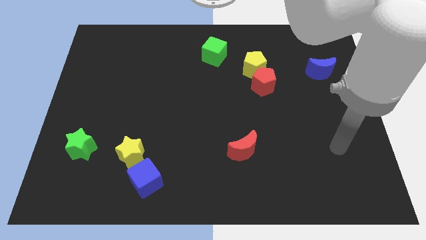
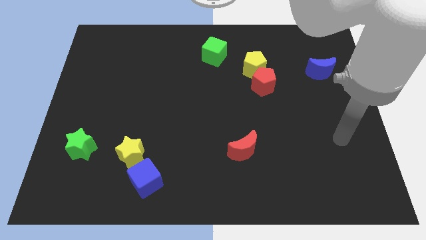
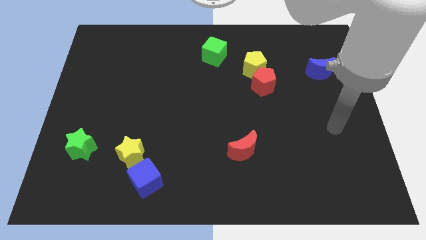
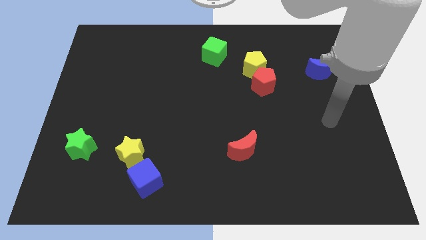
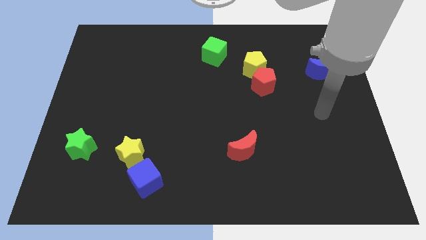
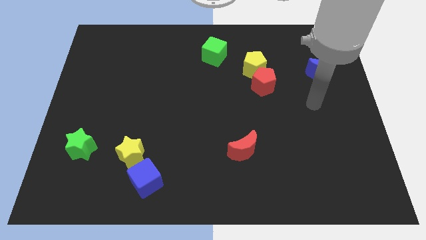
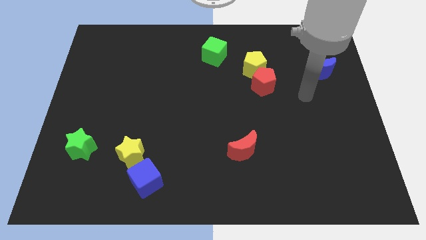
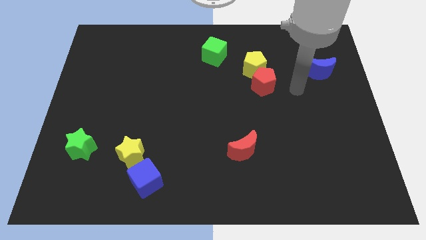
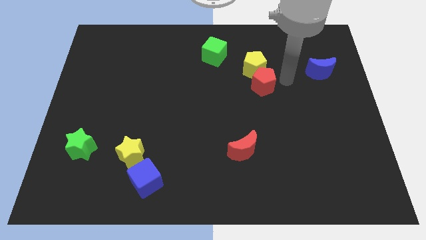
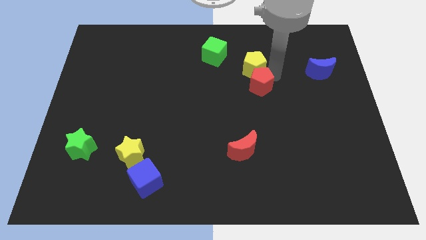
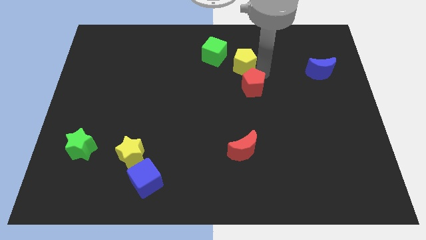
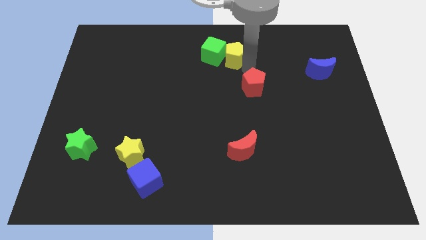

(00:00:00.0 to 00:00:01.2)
move the red pentagon away from the yellow pentagon

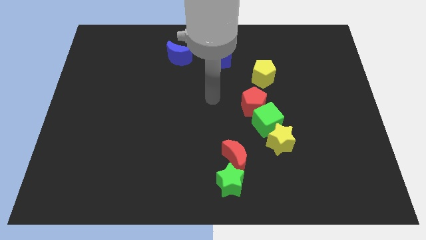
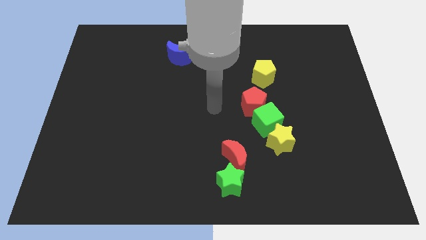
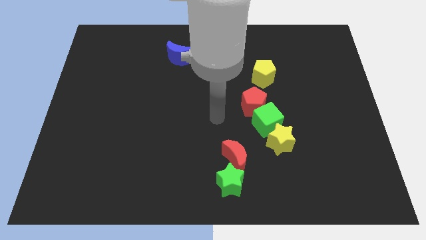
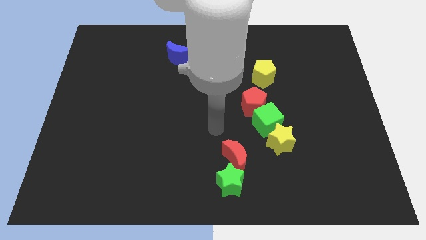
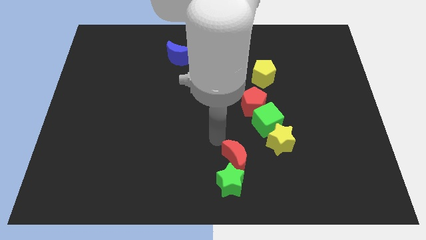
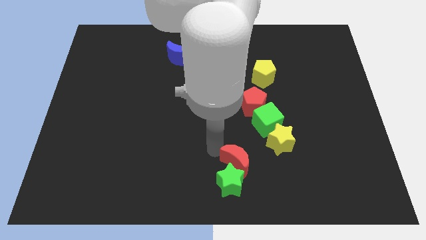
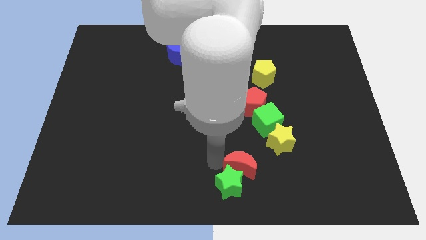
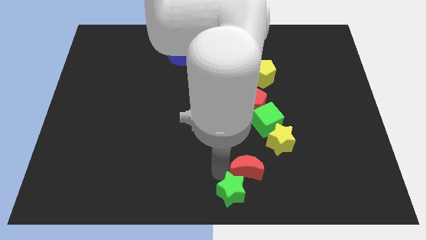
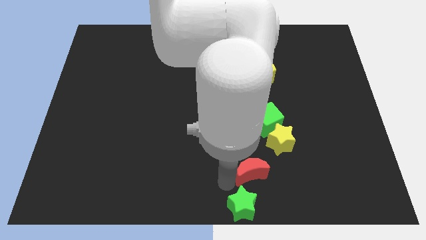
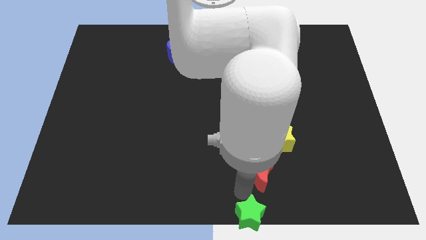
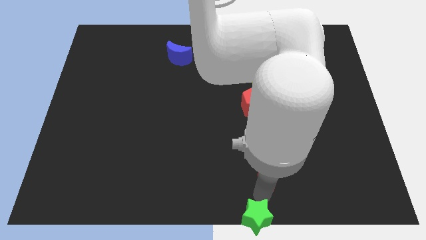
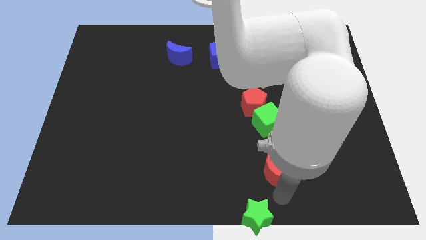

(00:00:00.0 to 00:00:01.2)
pull the red moon apart from the green star

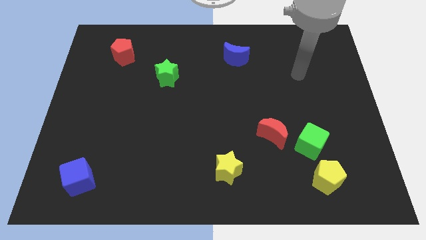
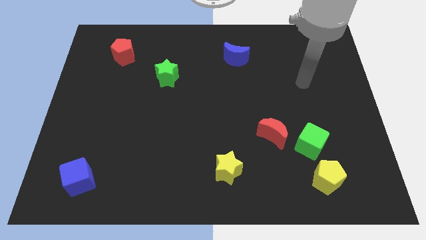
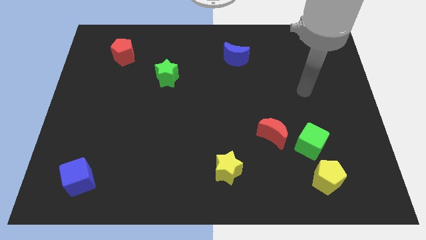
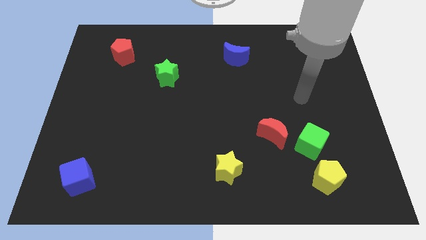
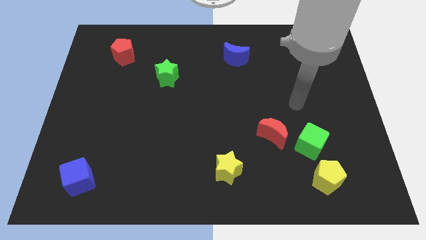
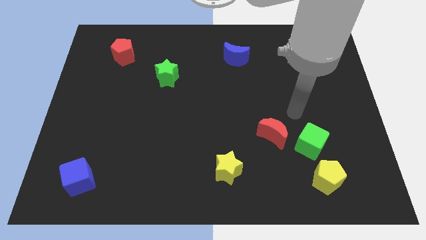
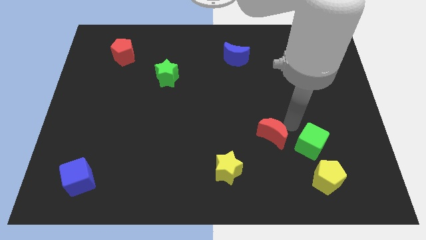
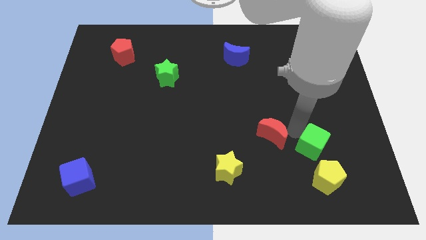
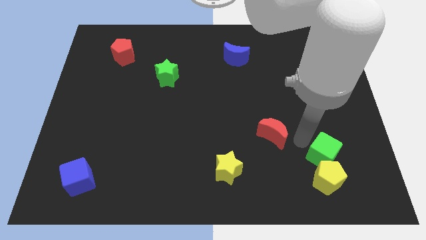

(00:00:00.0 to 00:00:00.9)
pull the red moon apart from the green cube

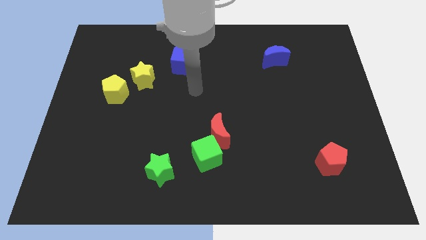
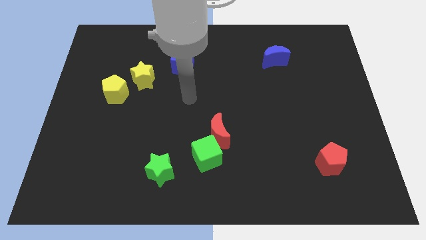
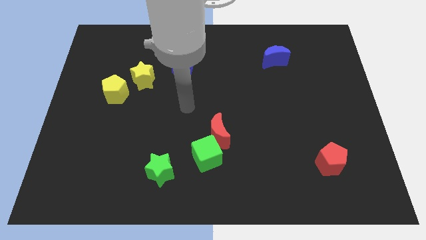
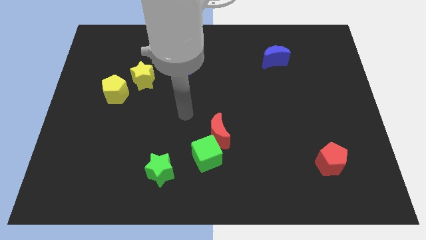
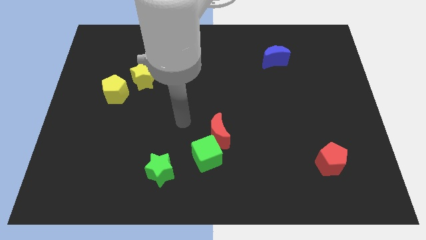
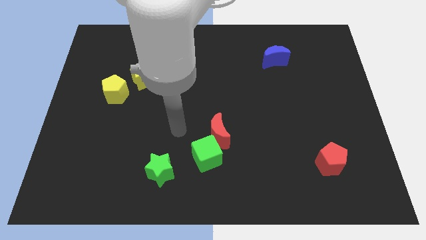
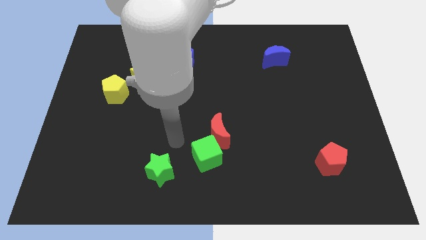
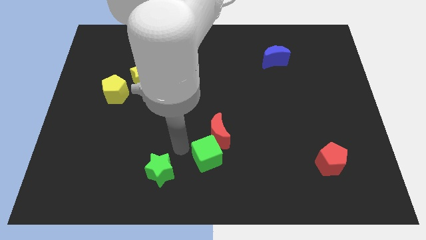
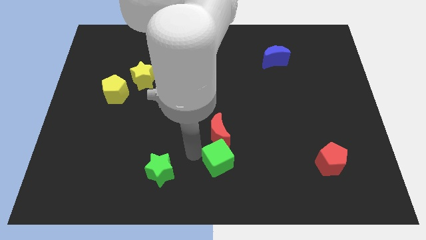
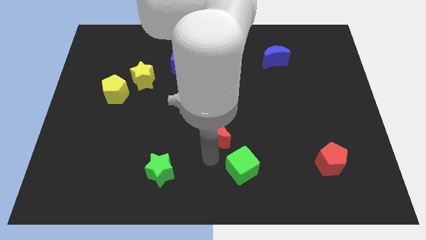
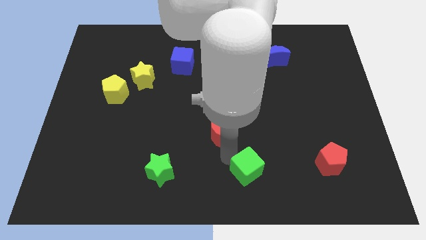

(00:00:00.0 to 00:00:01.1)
separate the red moon from the green cube

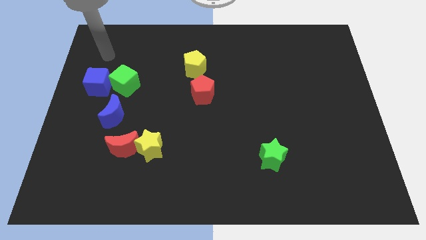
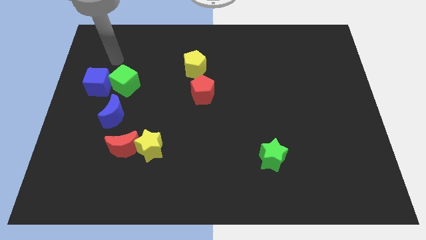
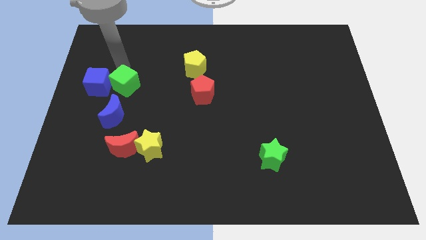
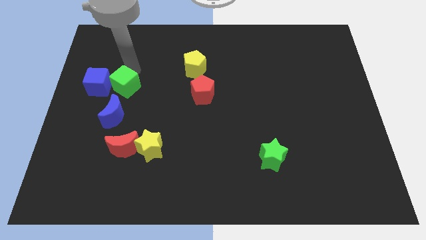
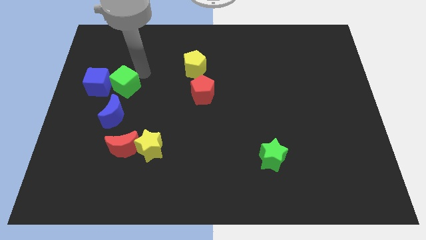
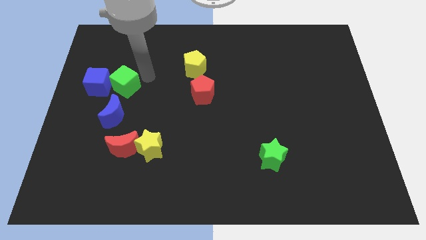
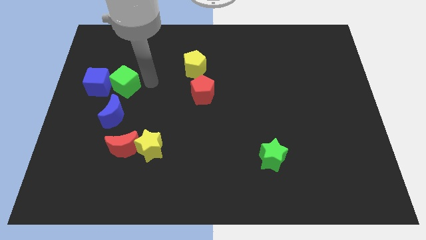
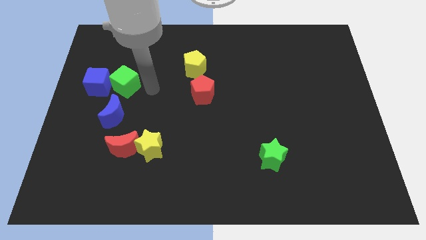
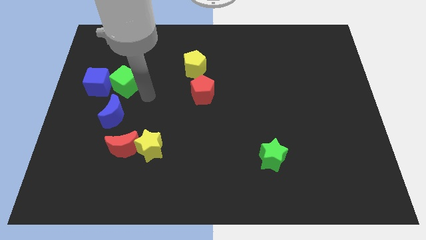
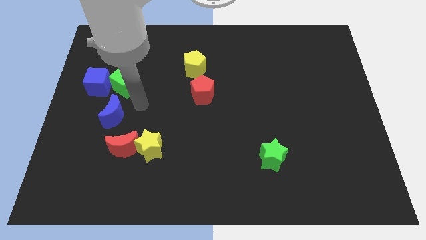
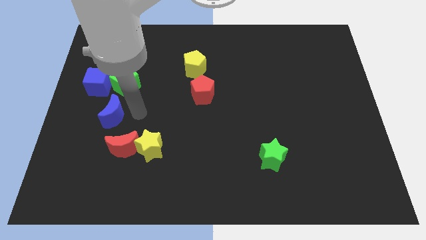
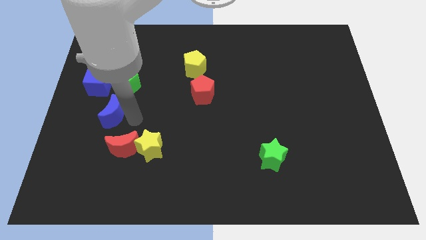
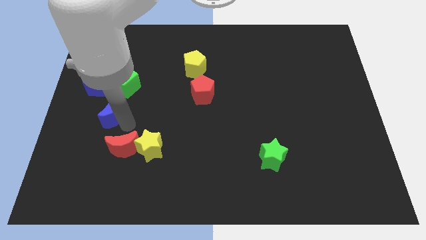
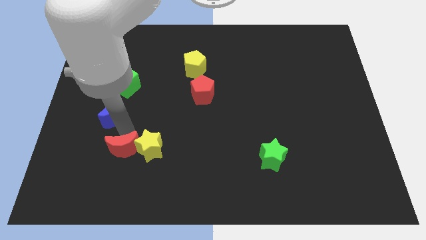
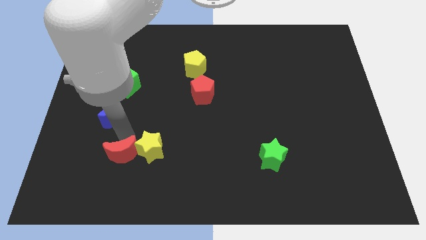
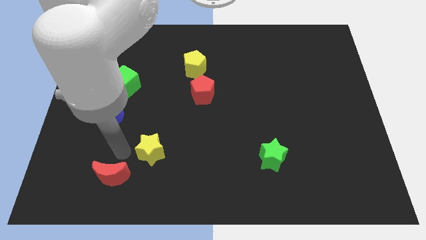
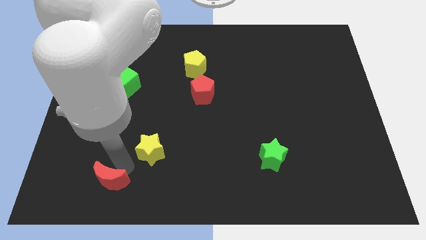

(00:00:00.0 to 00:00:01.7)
move the yellow star away from the red moon

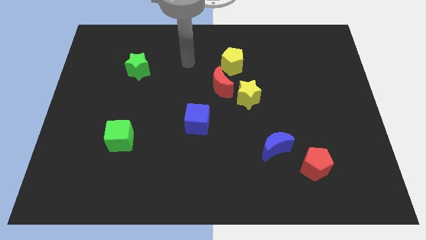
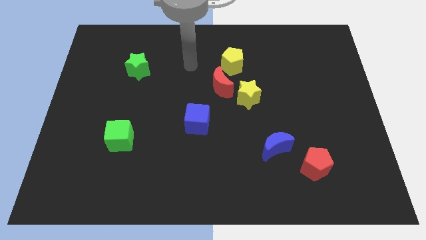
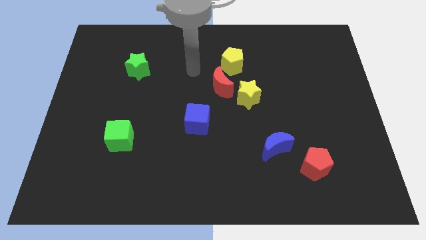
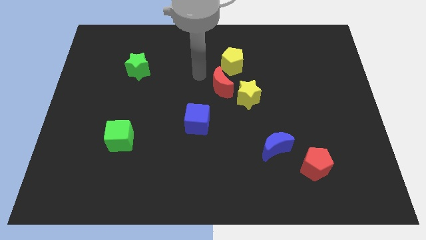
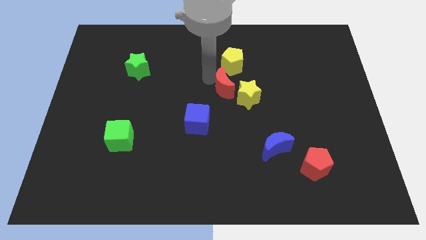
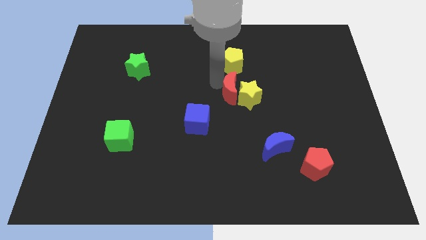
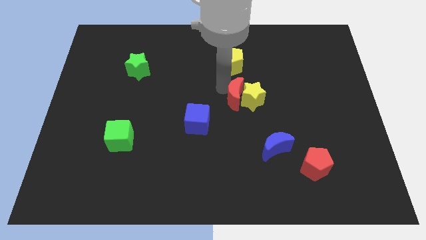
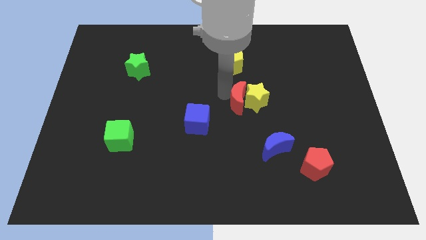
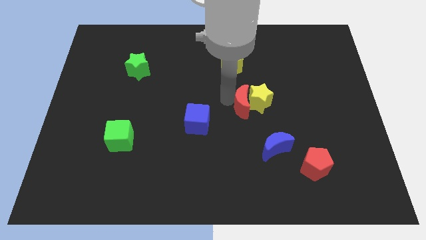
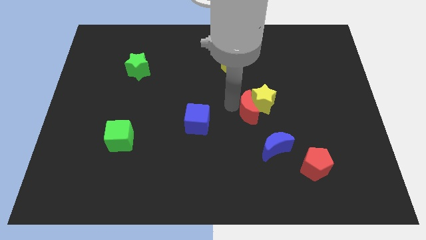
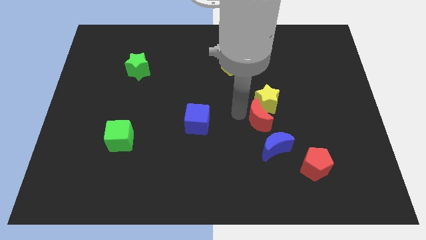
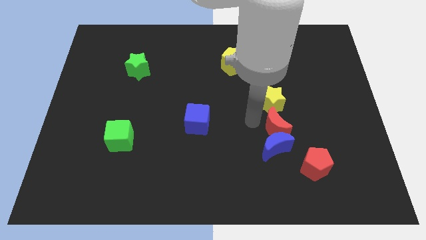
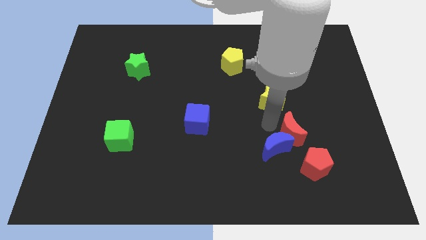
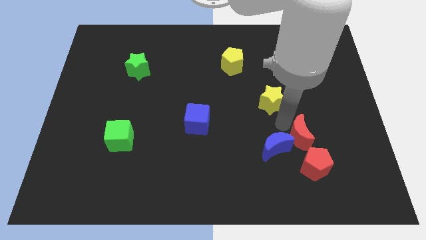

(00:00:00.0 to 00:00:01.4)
pull the yellow star apart from the red moon

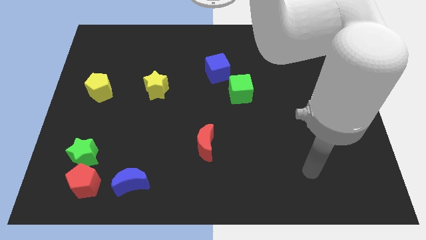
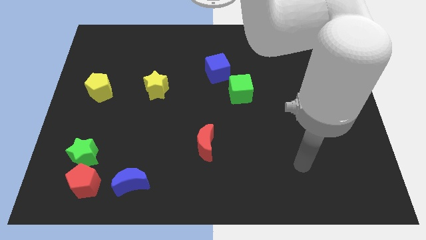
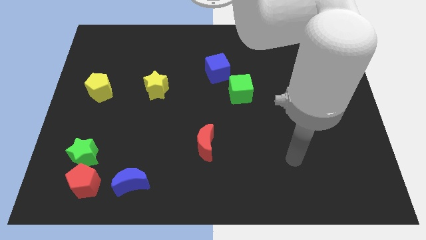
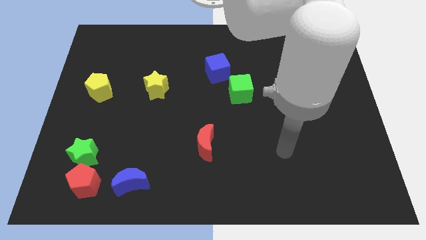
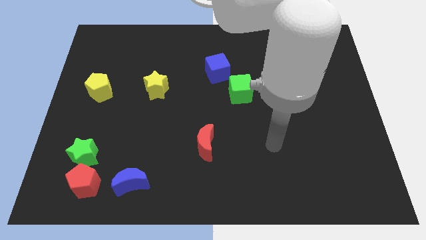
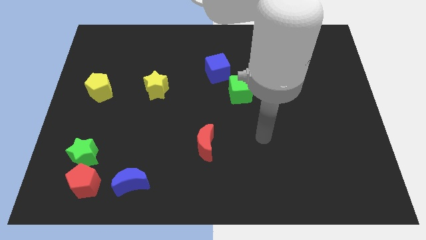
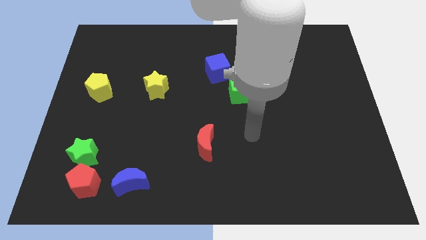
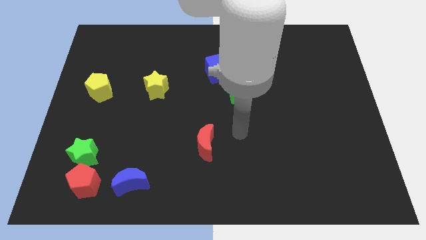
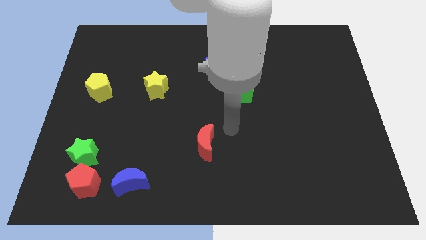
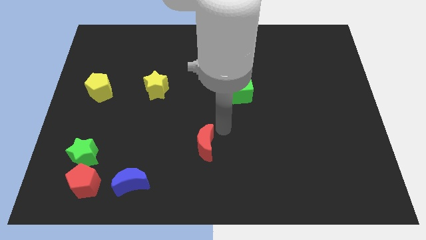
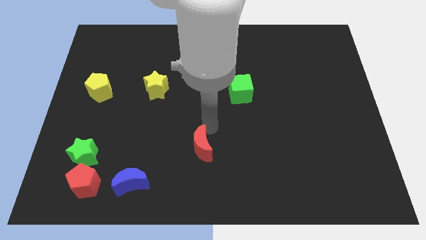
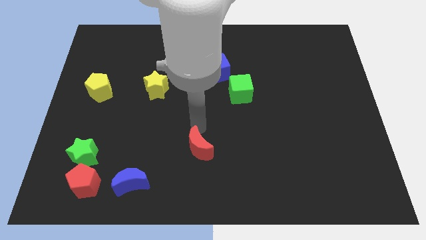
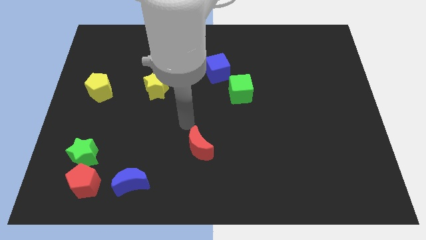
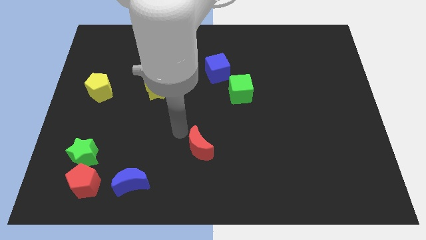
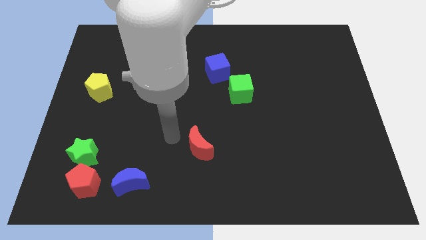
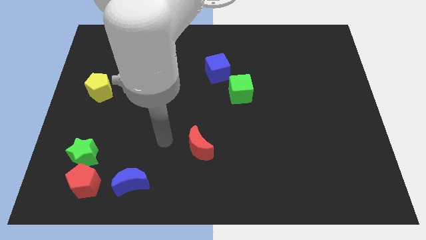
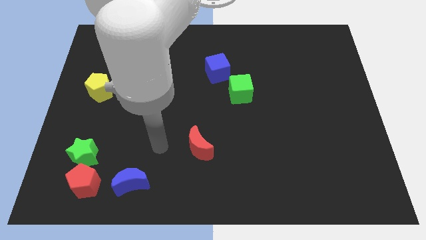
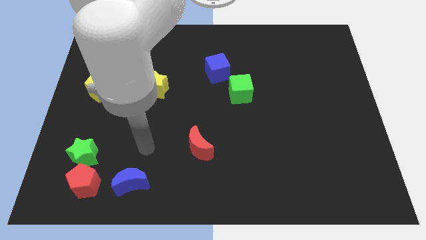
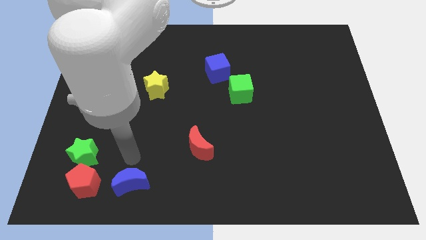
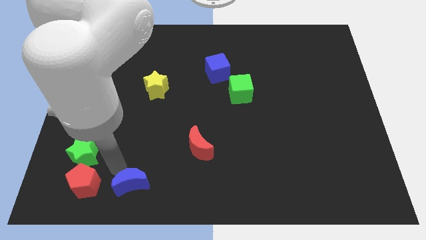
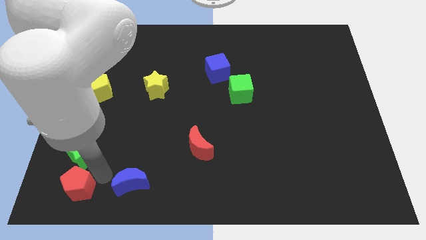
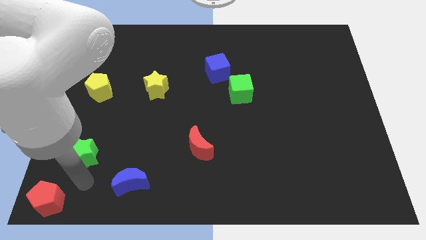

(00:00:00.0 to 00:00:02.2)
move the green star away from the red pentagon
